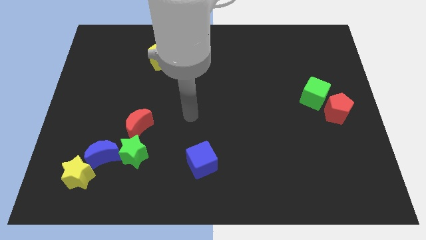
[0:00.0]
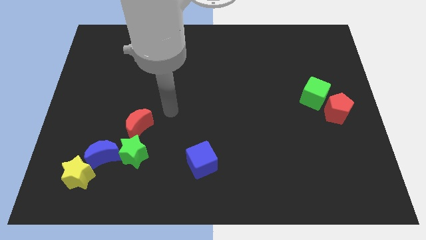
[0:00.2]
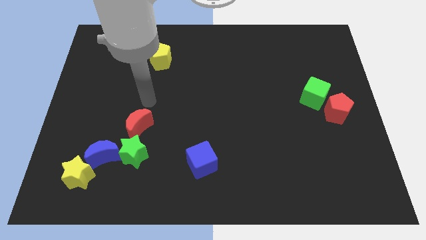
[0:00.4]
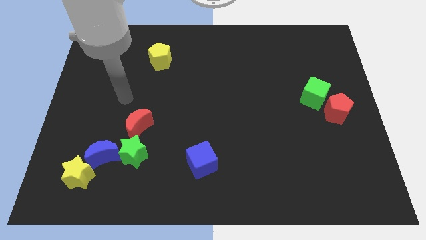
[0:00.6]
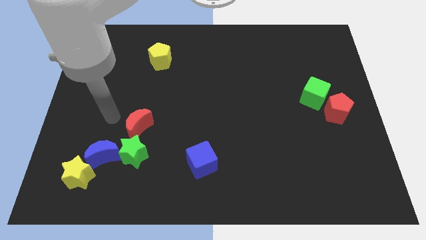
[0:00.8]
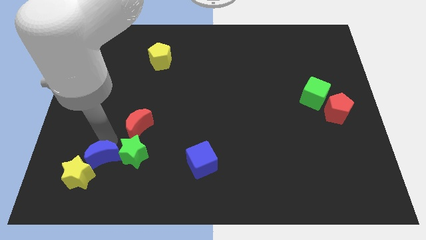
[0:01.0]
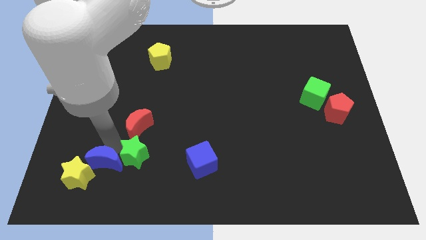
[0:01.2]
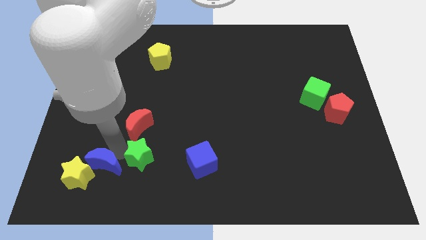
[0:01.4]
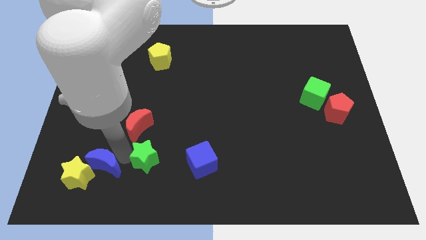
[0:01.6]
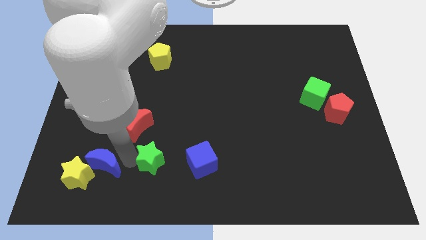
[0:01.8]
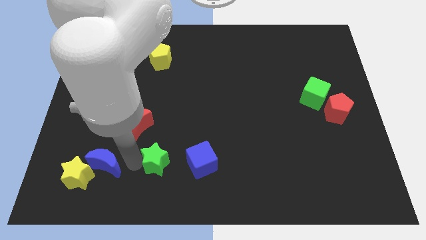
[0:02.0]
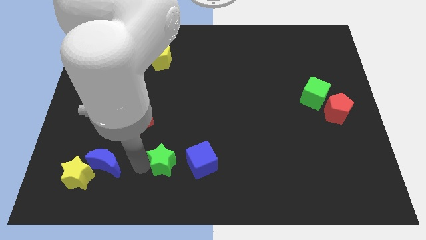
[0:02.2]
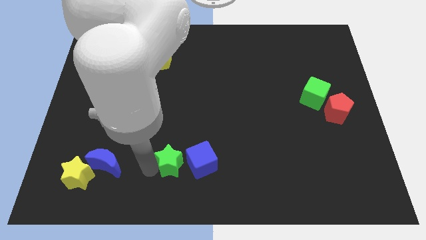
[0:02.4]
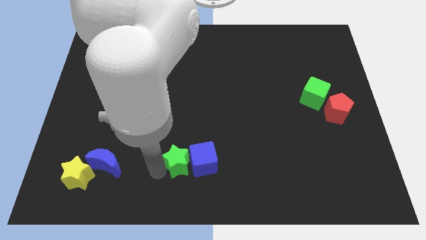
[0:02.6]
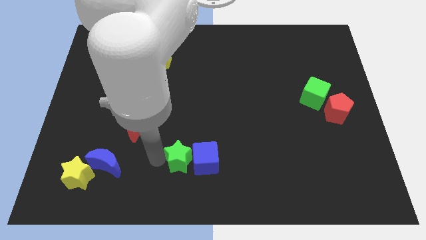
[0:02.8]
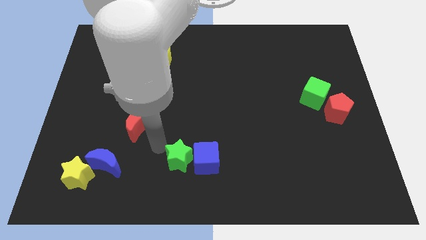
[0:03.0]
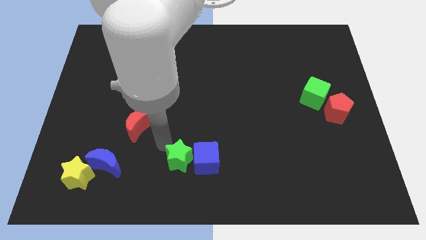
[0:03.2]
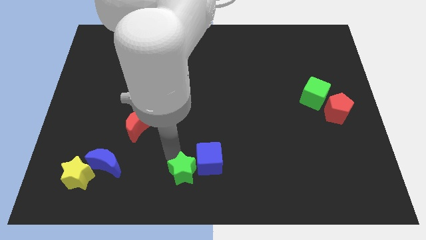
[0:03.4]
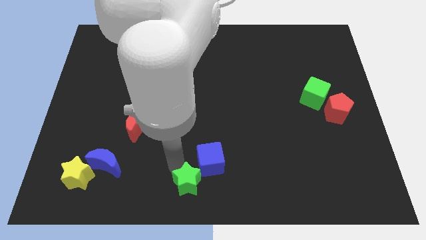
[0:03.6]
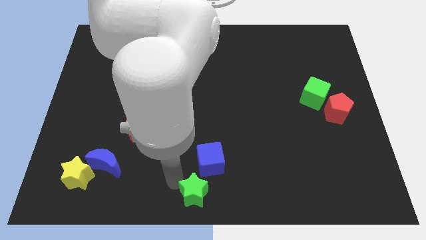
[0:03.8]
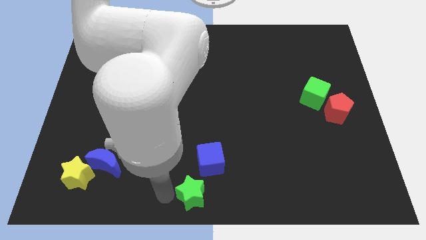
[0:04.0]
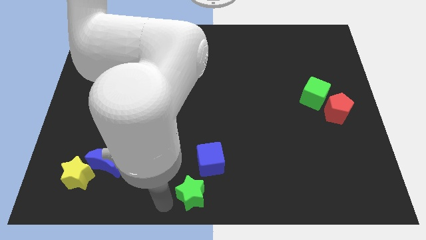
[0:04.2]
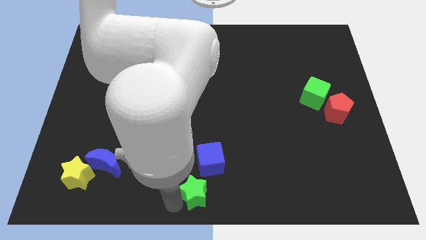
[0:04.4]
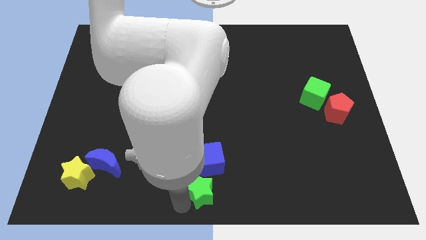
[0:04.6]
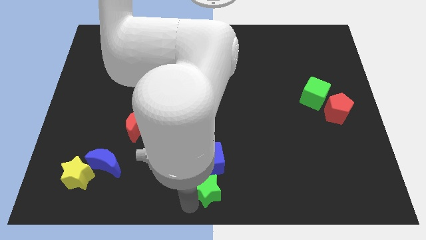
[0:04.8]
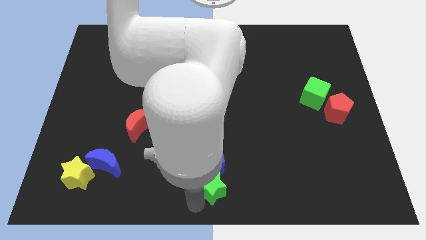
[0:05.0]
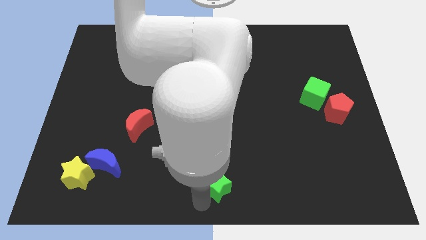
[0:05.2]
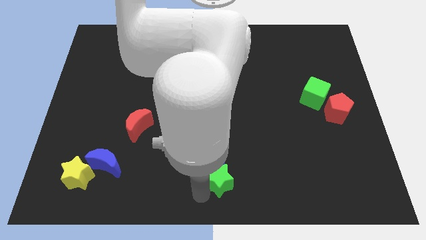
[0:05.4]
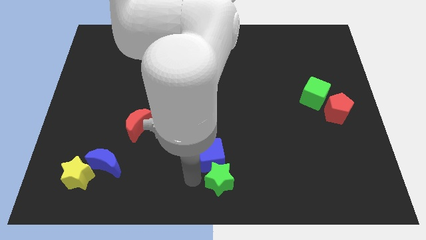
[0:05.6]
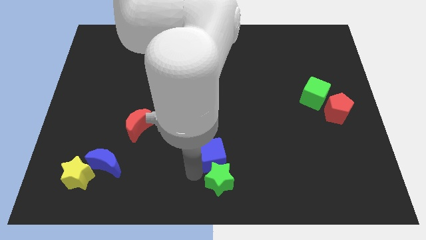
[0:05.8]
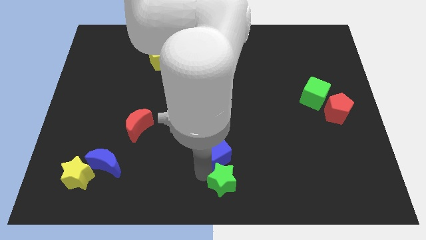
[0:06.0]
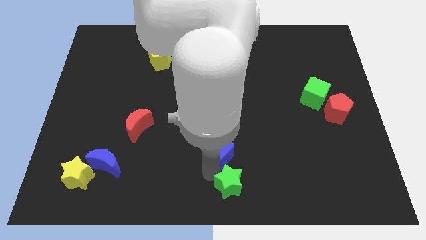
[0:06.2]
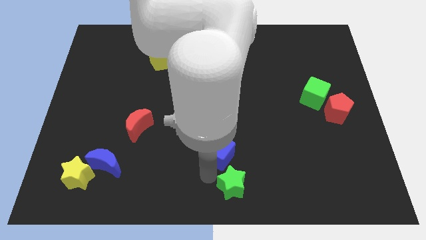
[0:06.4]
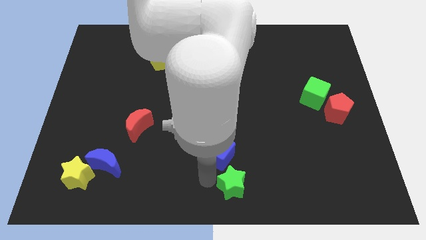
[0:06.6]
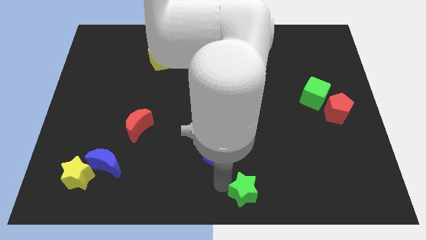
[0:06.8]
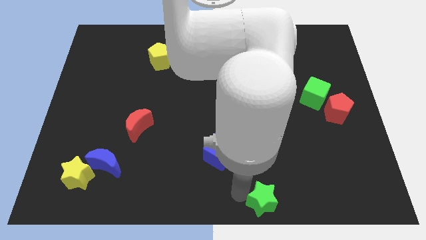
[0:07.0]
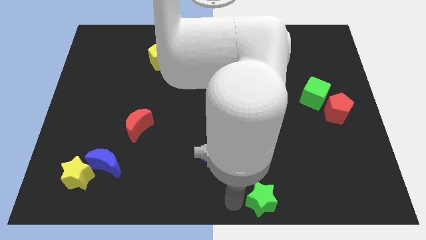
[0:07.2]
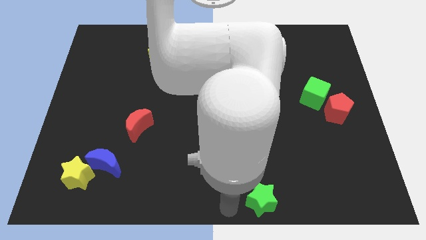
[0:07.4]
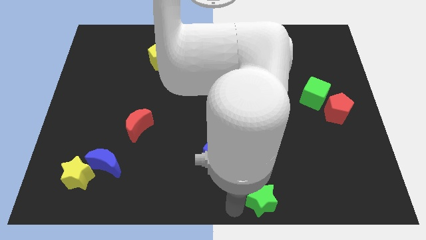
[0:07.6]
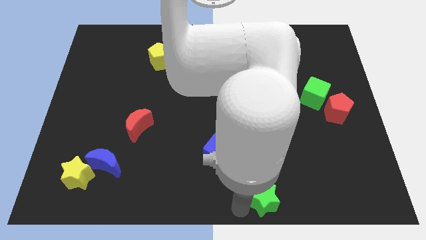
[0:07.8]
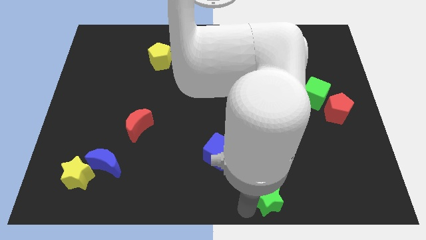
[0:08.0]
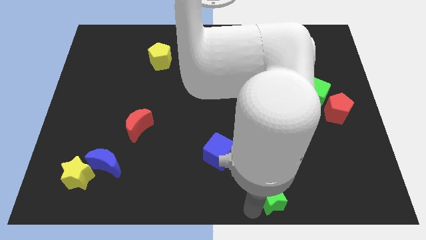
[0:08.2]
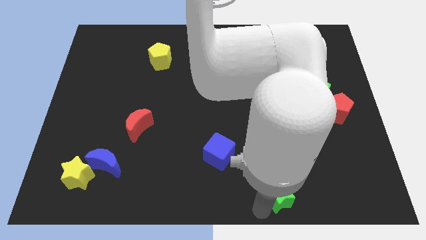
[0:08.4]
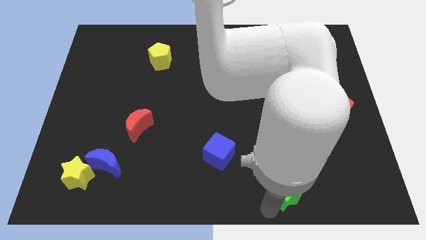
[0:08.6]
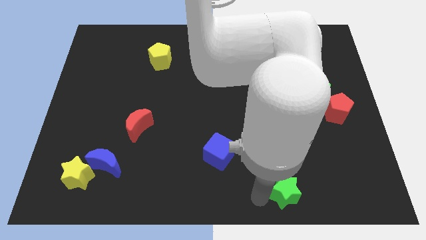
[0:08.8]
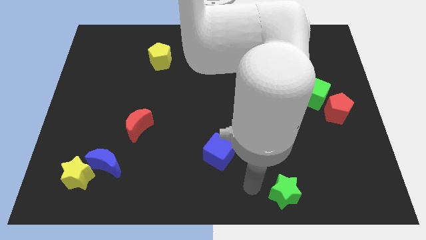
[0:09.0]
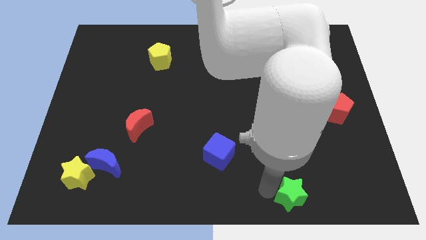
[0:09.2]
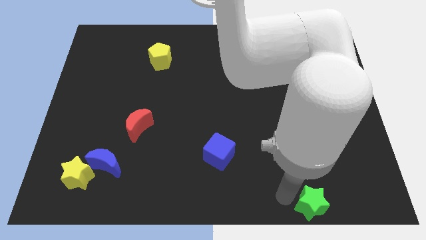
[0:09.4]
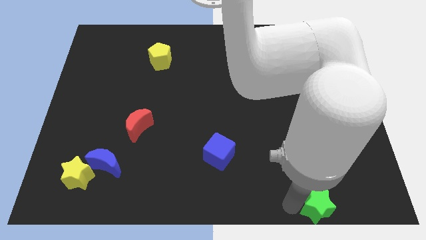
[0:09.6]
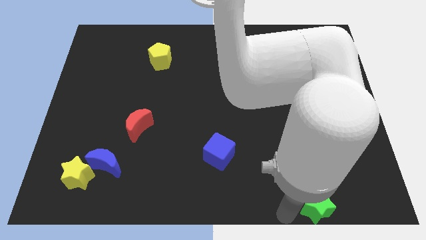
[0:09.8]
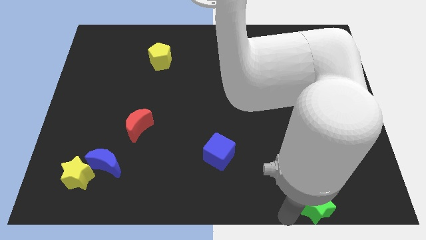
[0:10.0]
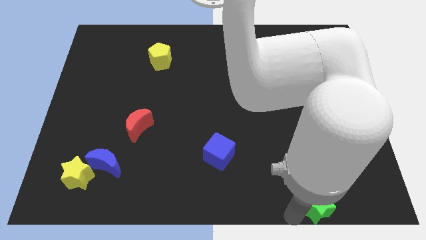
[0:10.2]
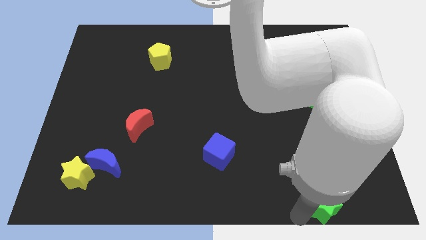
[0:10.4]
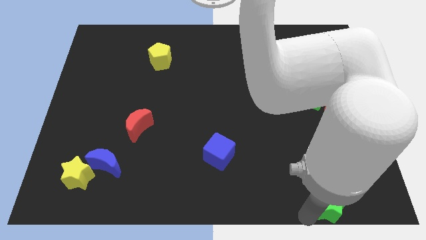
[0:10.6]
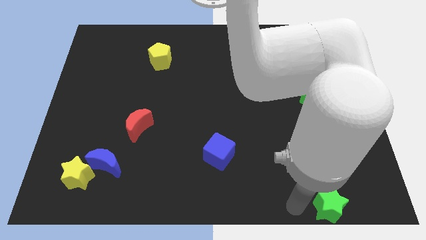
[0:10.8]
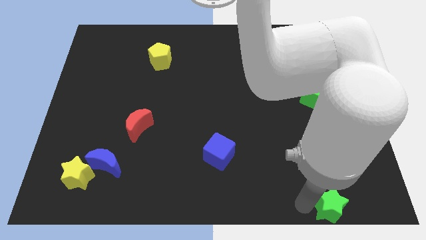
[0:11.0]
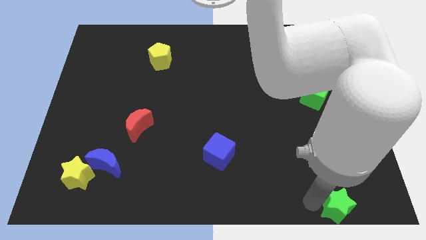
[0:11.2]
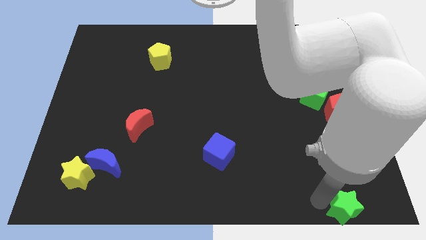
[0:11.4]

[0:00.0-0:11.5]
push the green star to the bottom right of the board

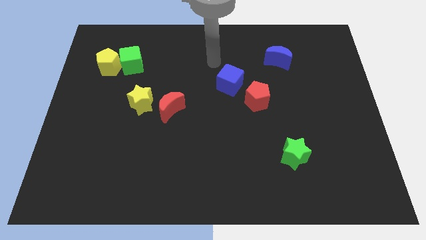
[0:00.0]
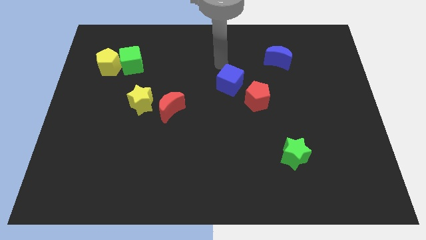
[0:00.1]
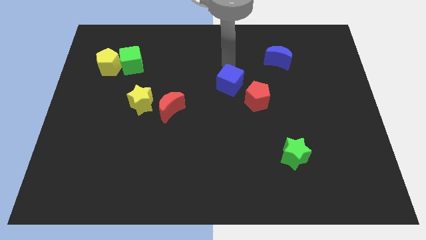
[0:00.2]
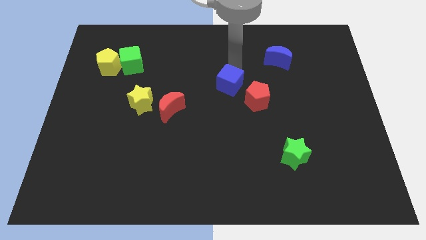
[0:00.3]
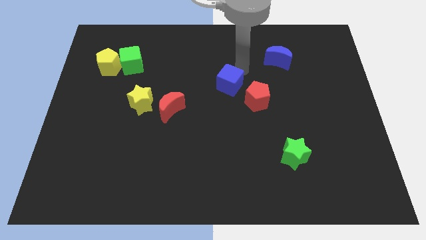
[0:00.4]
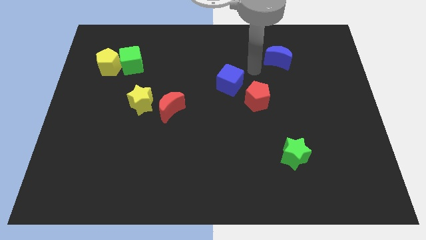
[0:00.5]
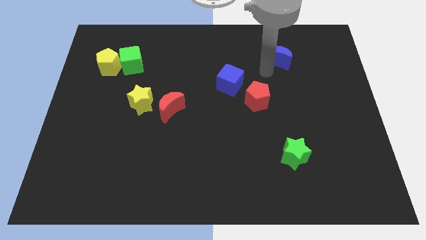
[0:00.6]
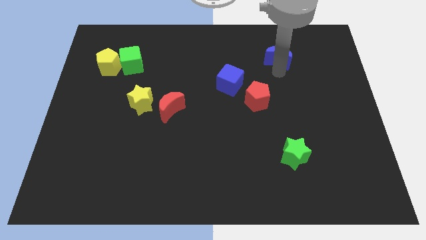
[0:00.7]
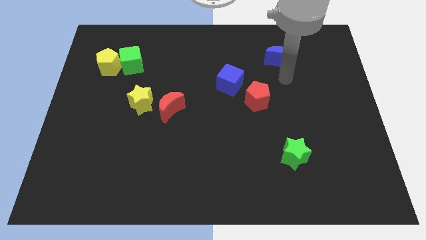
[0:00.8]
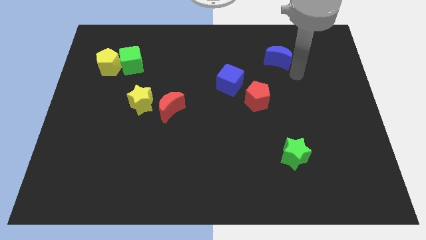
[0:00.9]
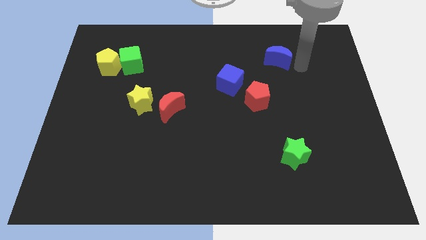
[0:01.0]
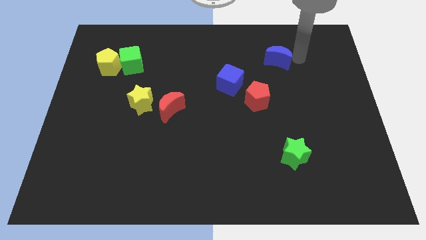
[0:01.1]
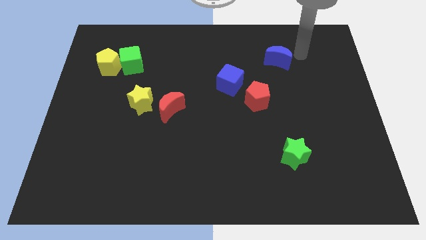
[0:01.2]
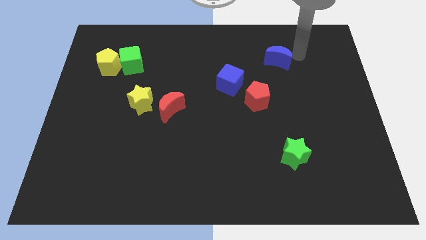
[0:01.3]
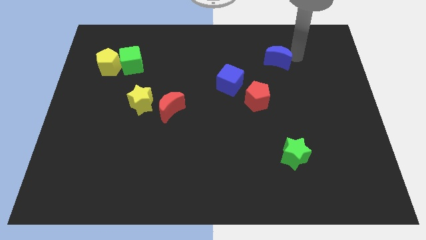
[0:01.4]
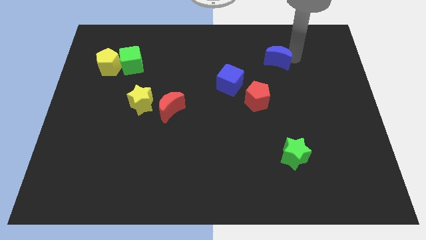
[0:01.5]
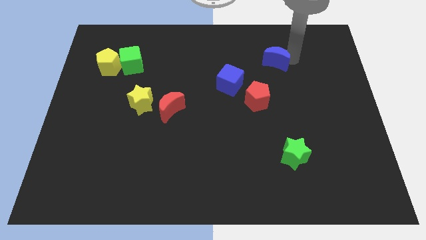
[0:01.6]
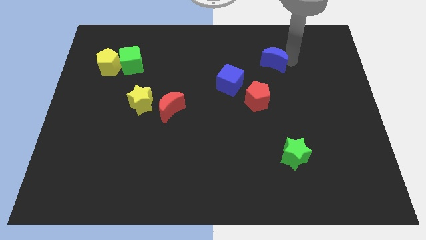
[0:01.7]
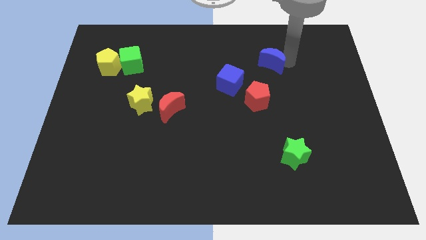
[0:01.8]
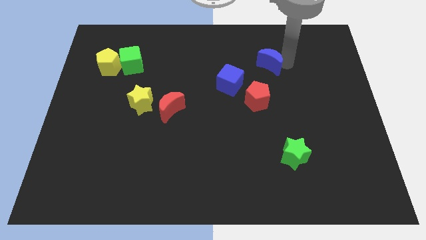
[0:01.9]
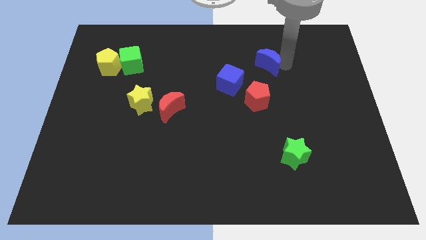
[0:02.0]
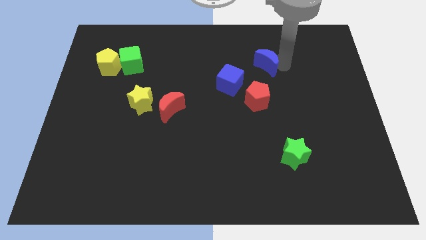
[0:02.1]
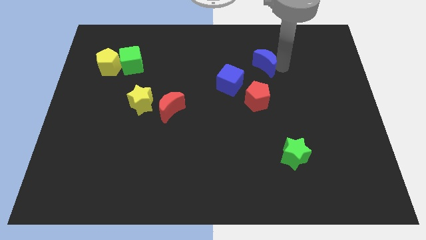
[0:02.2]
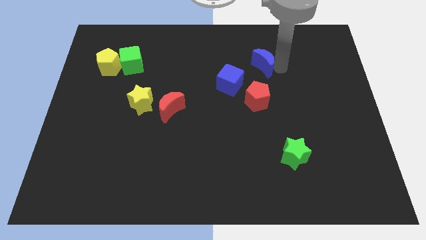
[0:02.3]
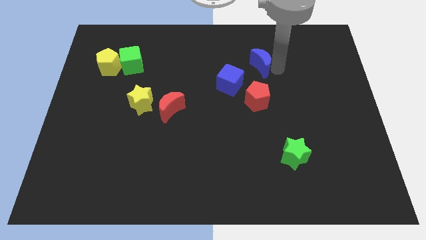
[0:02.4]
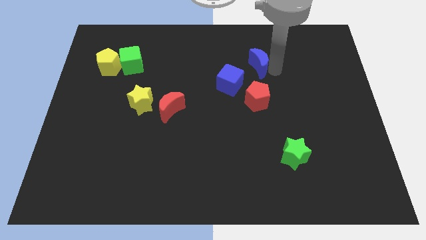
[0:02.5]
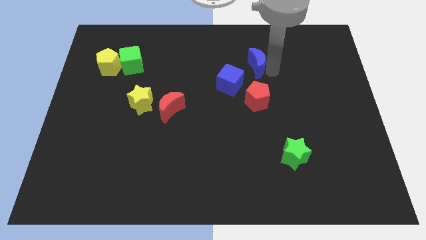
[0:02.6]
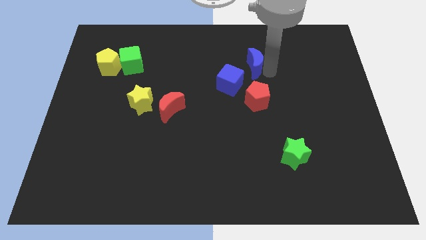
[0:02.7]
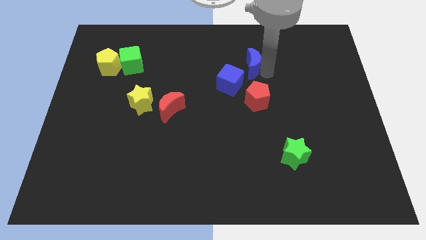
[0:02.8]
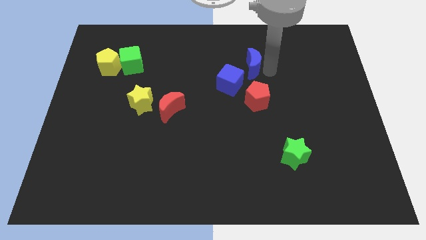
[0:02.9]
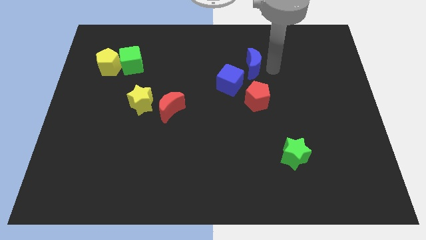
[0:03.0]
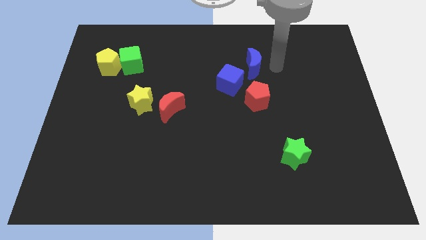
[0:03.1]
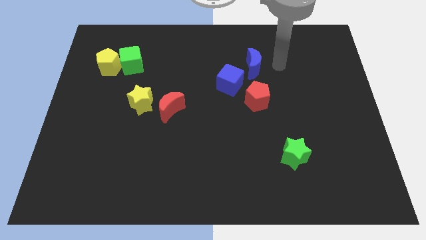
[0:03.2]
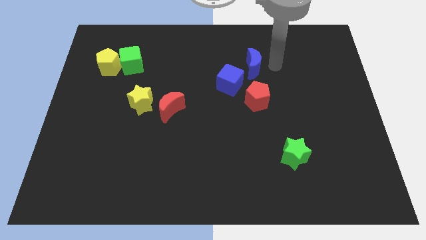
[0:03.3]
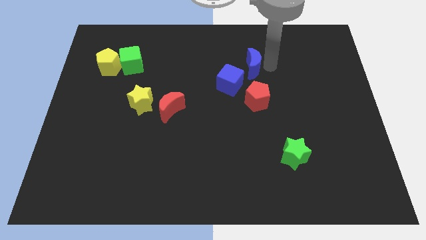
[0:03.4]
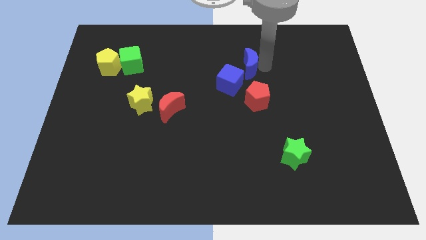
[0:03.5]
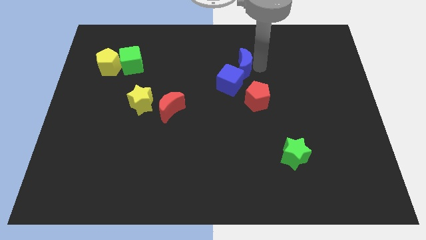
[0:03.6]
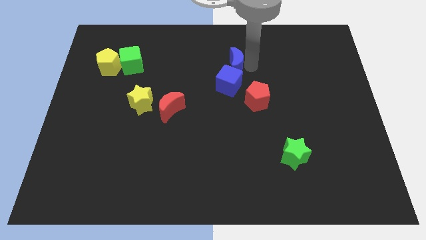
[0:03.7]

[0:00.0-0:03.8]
put the blue moon to the center
